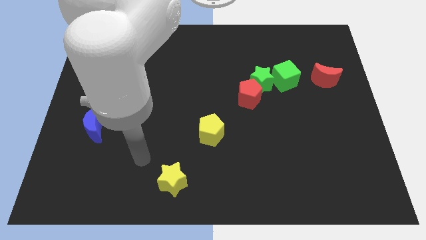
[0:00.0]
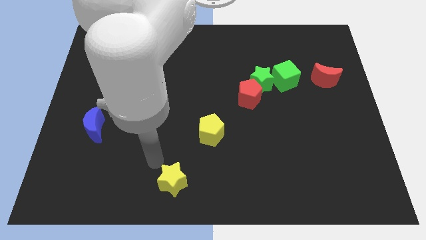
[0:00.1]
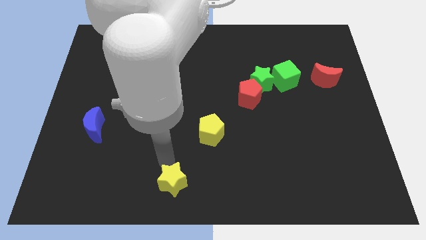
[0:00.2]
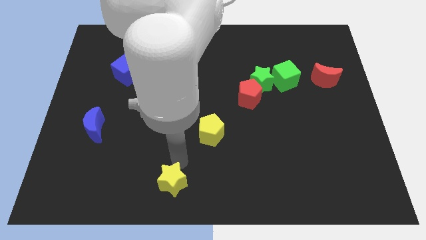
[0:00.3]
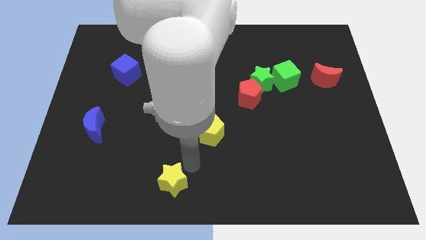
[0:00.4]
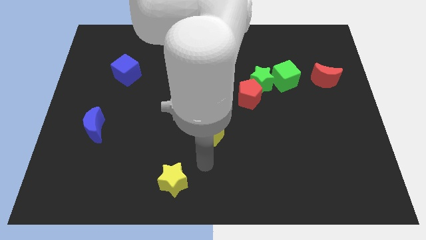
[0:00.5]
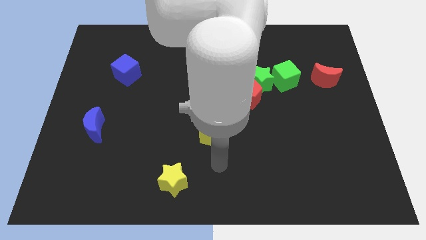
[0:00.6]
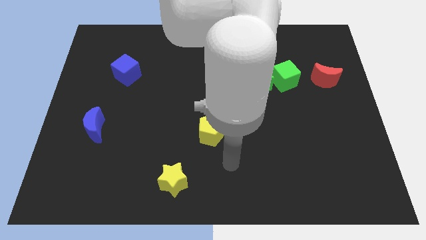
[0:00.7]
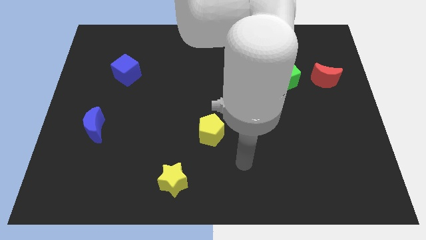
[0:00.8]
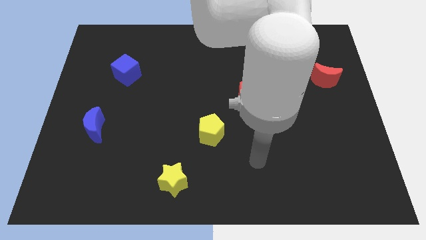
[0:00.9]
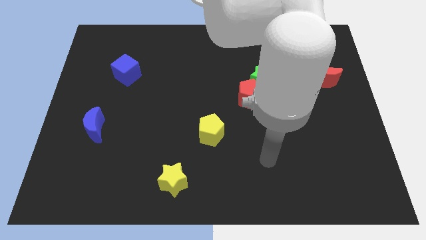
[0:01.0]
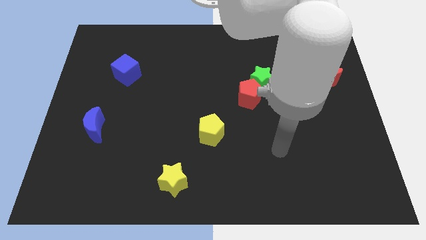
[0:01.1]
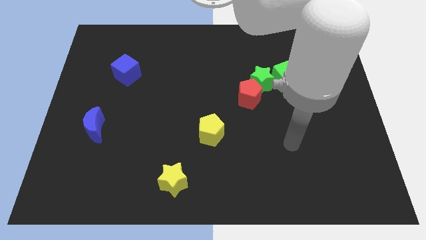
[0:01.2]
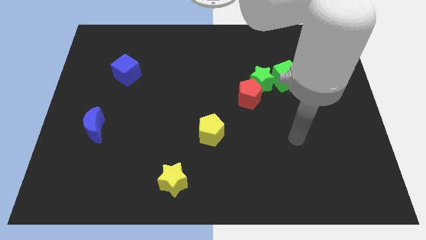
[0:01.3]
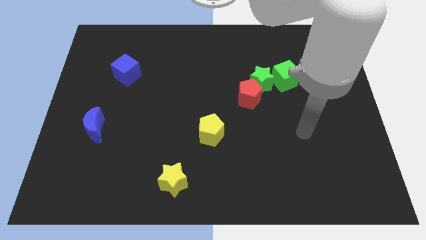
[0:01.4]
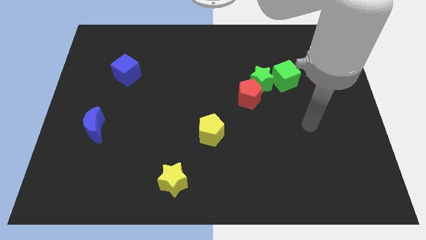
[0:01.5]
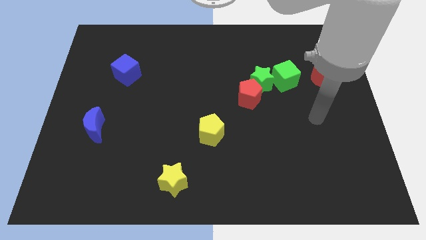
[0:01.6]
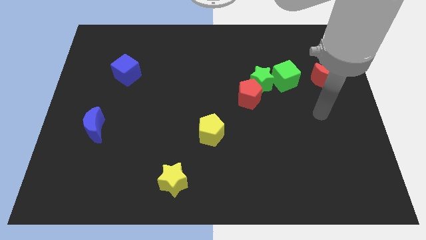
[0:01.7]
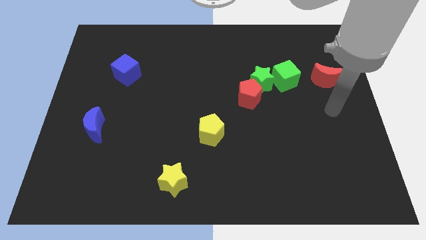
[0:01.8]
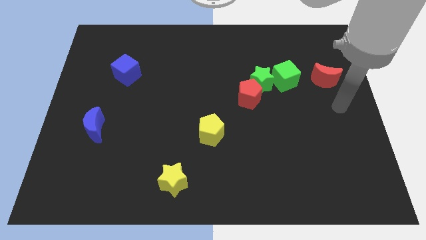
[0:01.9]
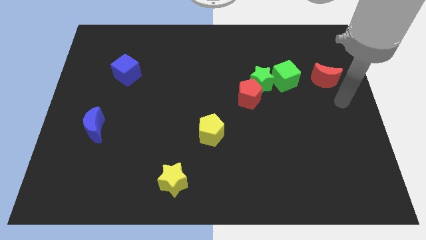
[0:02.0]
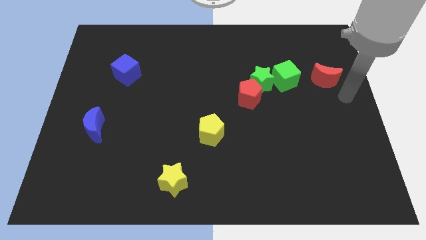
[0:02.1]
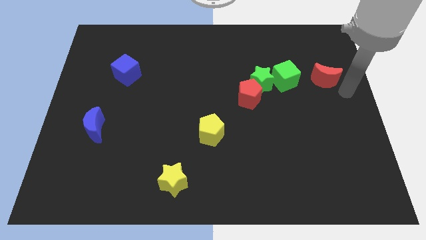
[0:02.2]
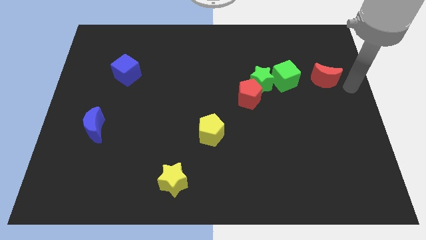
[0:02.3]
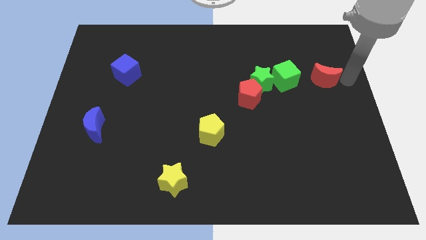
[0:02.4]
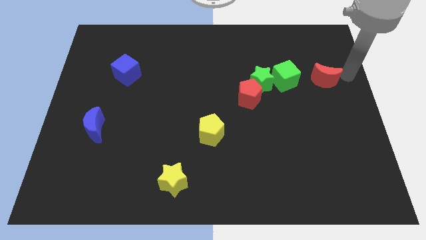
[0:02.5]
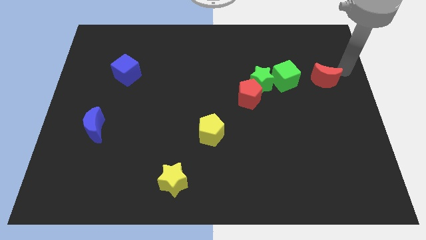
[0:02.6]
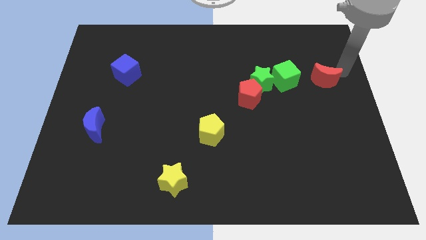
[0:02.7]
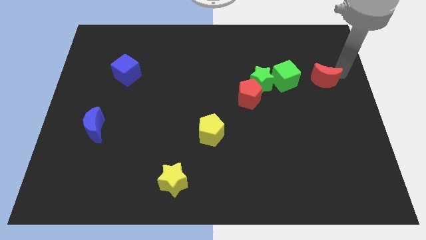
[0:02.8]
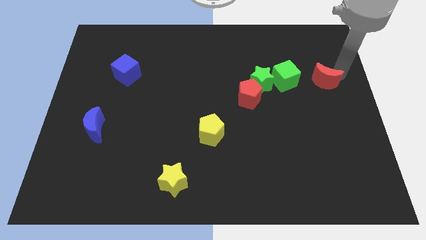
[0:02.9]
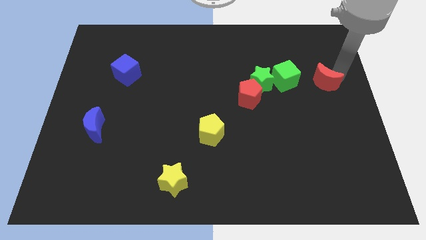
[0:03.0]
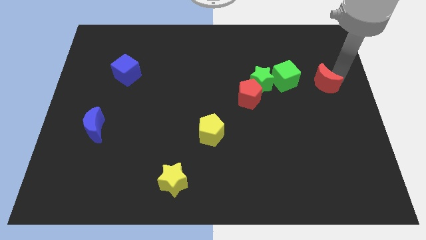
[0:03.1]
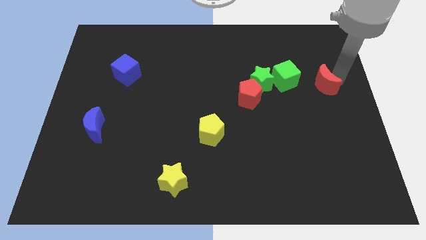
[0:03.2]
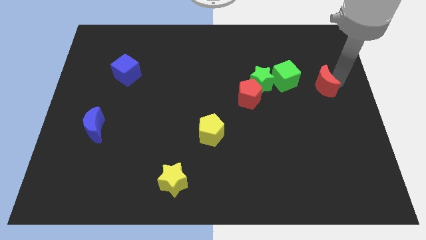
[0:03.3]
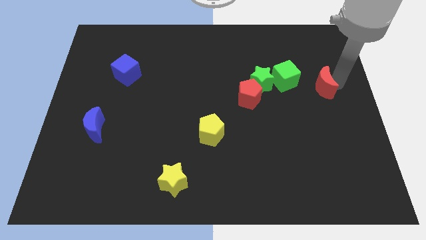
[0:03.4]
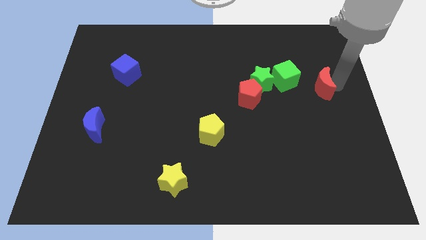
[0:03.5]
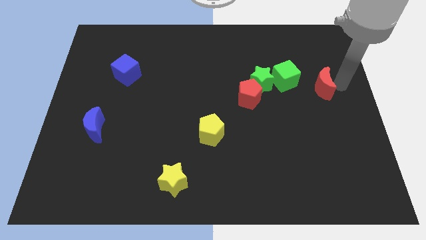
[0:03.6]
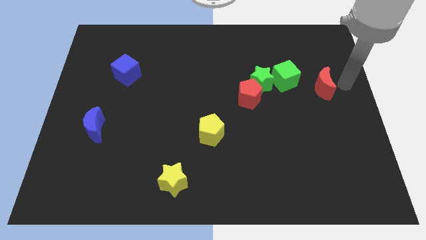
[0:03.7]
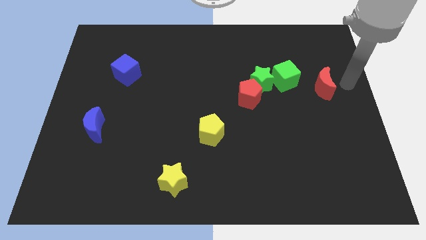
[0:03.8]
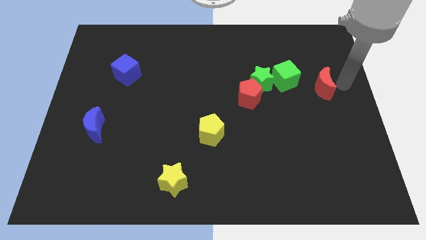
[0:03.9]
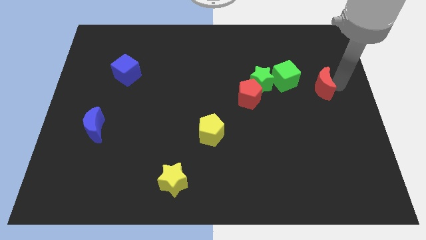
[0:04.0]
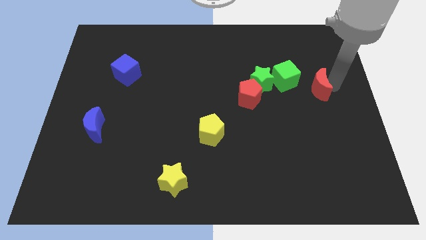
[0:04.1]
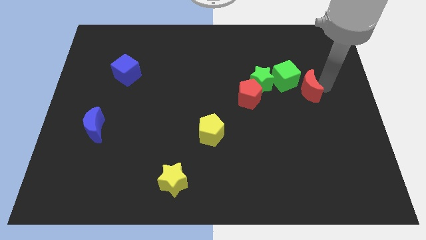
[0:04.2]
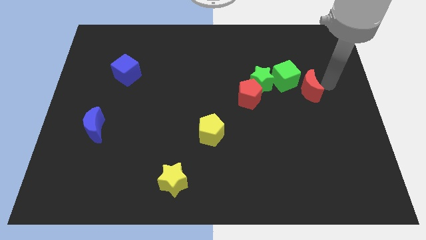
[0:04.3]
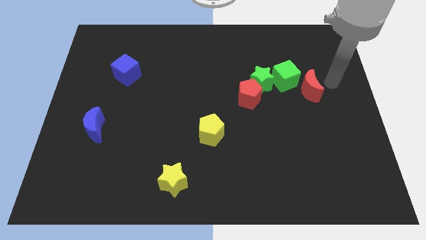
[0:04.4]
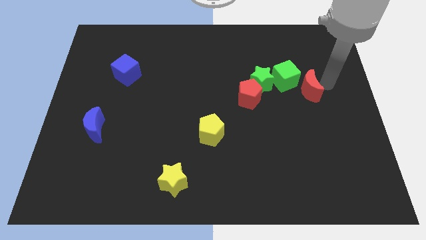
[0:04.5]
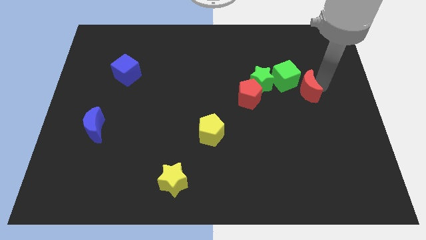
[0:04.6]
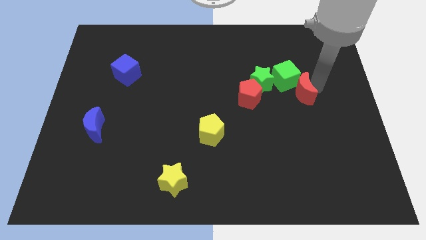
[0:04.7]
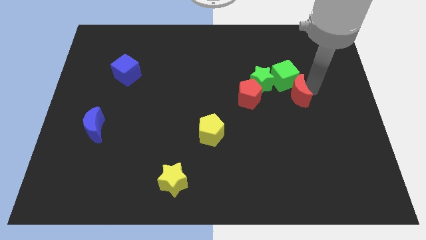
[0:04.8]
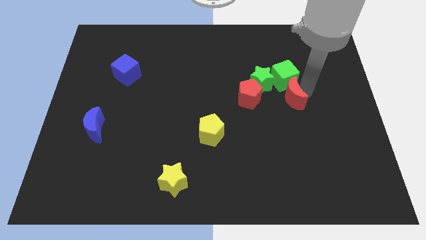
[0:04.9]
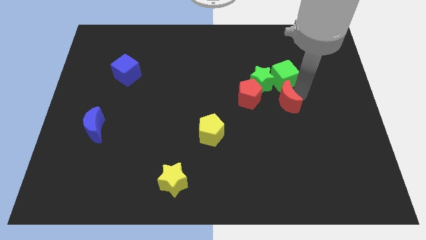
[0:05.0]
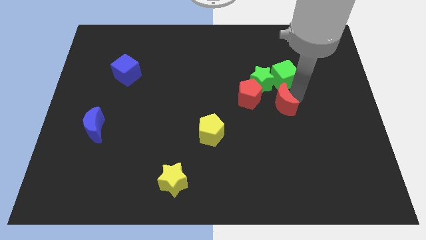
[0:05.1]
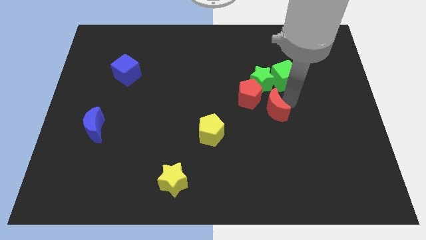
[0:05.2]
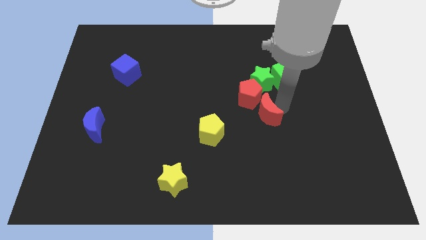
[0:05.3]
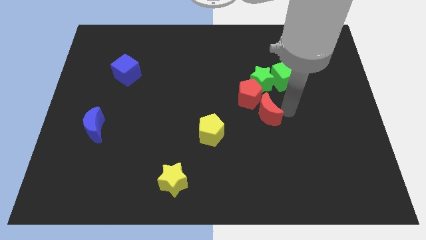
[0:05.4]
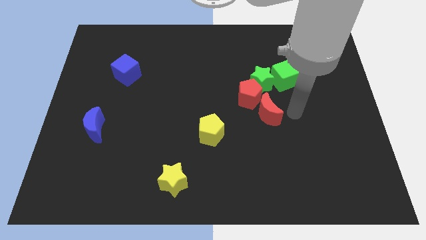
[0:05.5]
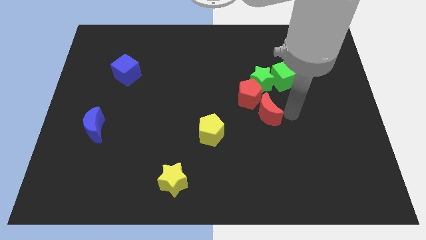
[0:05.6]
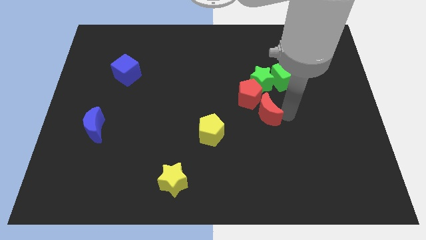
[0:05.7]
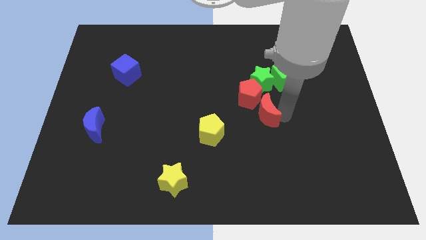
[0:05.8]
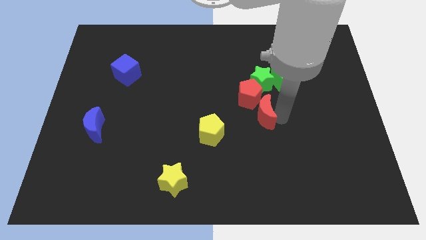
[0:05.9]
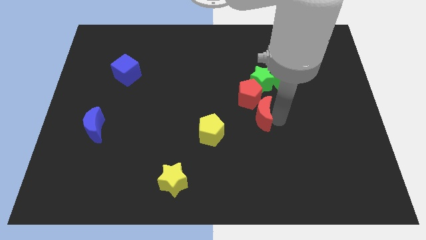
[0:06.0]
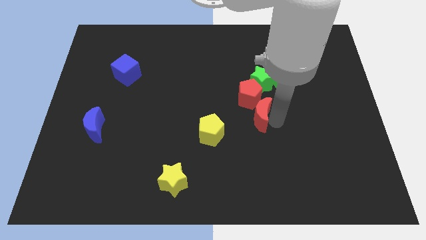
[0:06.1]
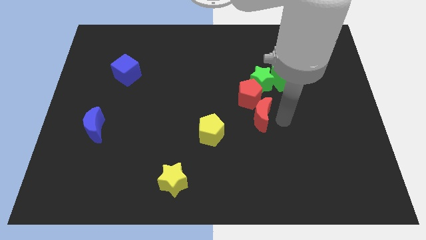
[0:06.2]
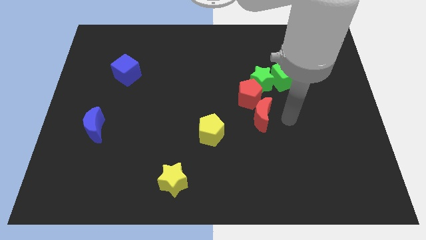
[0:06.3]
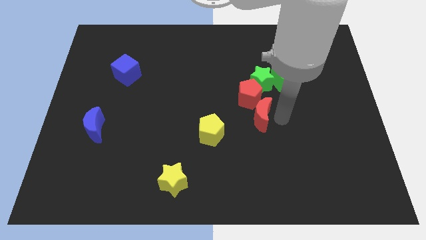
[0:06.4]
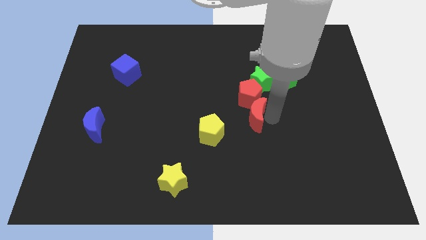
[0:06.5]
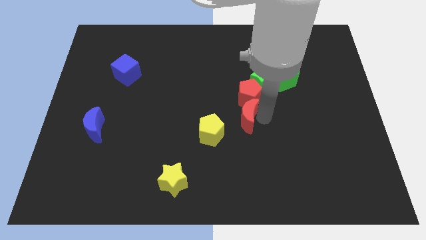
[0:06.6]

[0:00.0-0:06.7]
slide the red moon diagonally down and to the left of the red pentagon

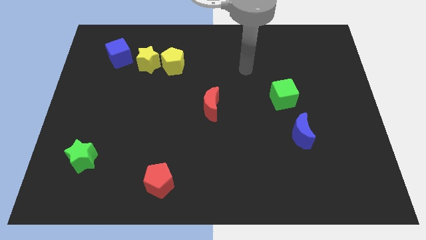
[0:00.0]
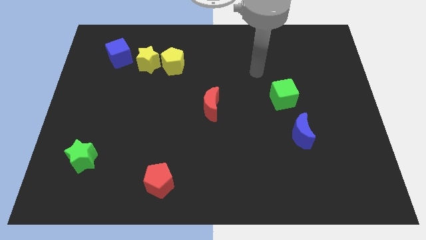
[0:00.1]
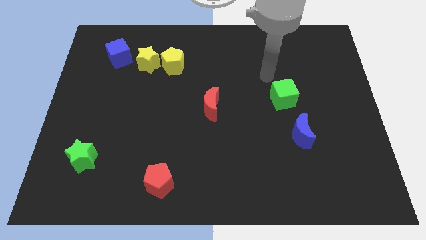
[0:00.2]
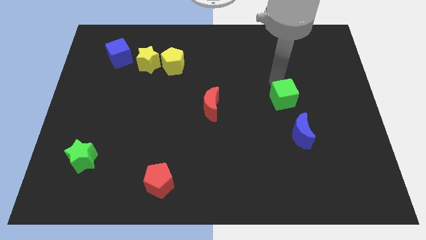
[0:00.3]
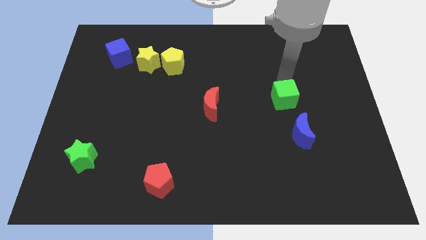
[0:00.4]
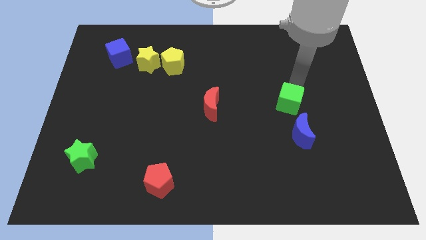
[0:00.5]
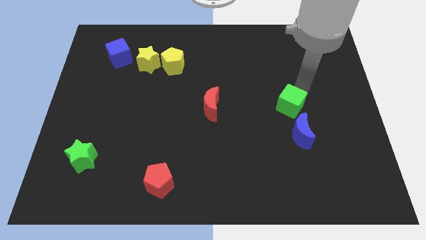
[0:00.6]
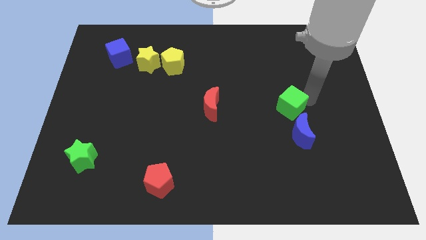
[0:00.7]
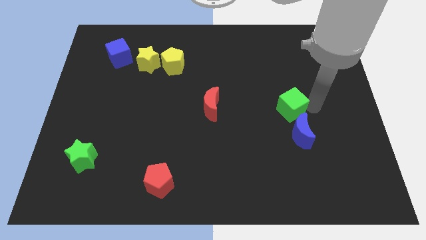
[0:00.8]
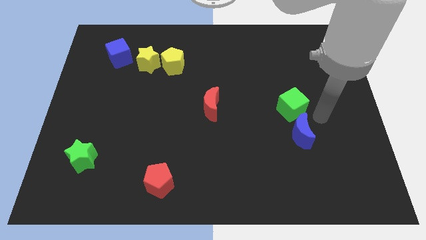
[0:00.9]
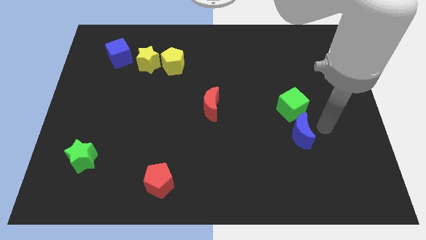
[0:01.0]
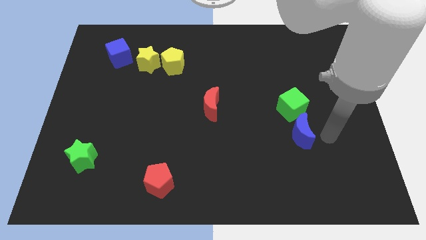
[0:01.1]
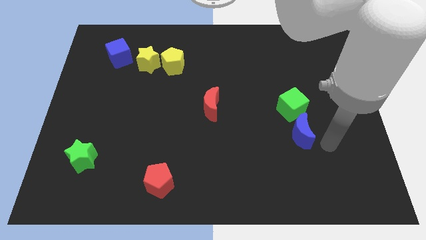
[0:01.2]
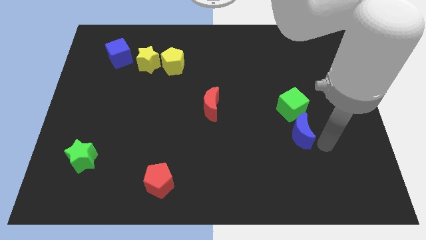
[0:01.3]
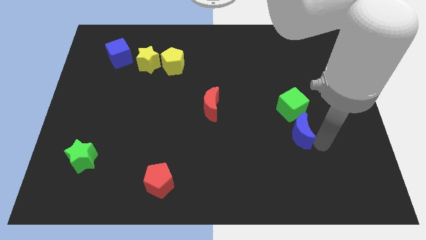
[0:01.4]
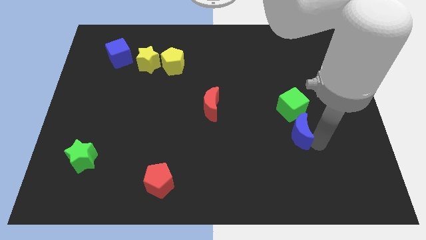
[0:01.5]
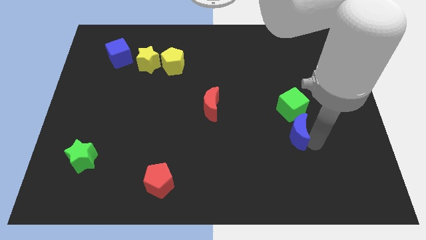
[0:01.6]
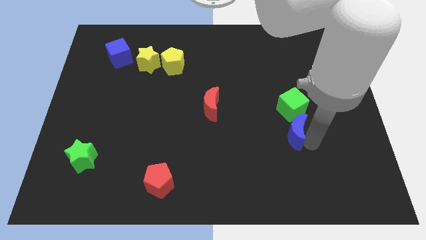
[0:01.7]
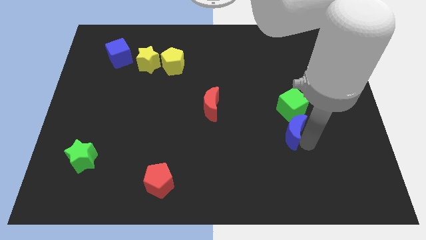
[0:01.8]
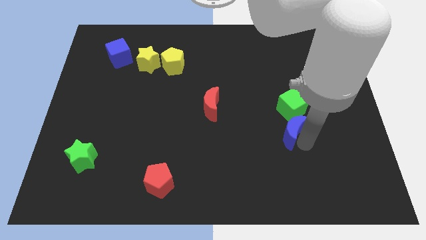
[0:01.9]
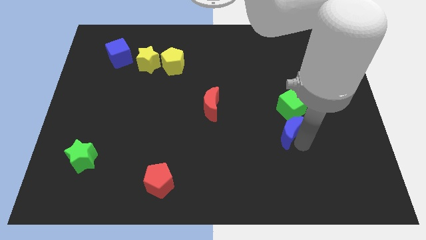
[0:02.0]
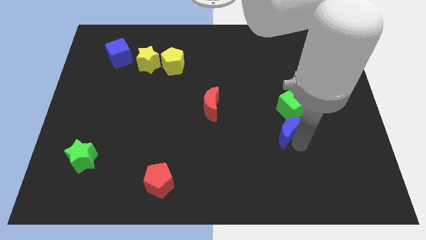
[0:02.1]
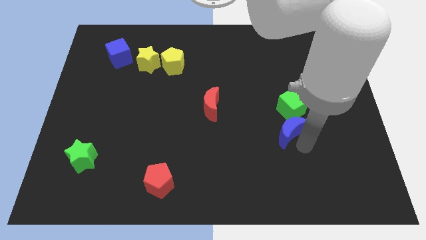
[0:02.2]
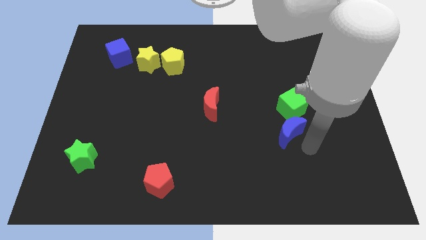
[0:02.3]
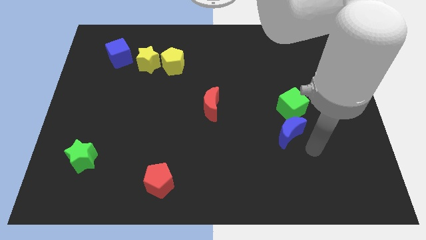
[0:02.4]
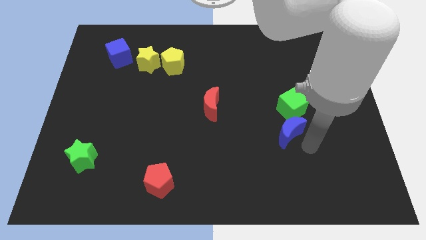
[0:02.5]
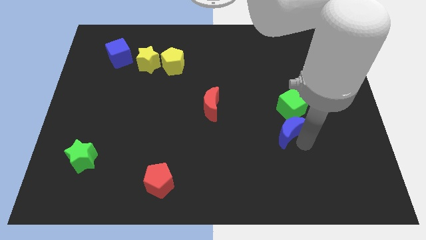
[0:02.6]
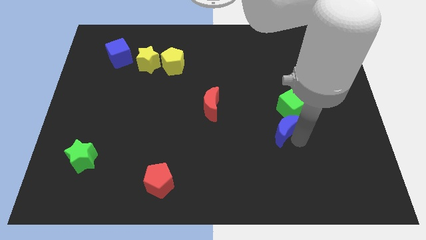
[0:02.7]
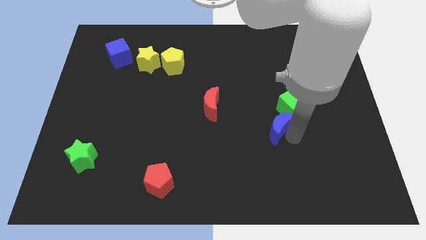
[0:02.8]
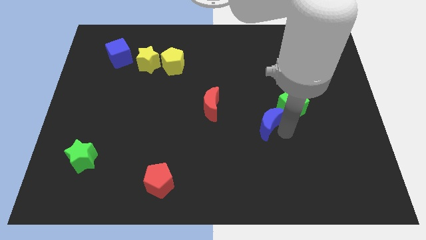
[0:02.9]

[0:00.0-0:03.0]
push the blue moon just left of the green cube
